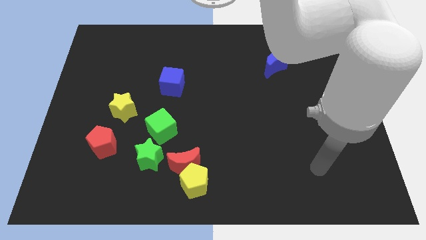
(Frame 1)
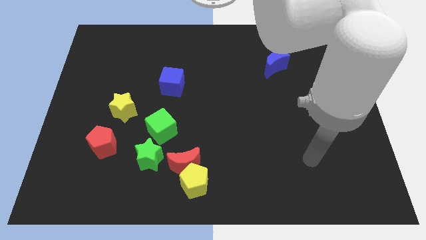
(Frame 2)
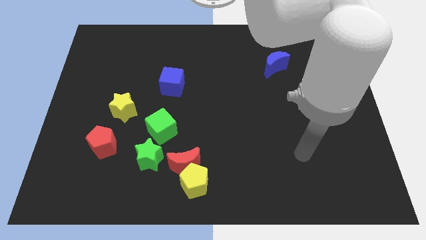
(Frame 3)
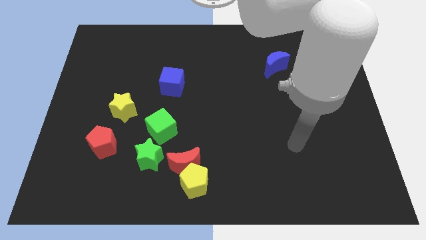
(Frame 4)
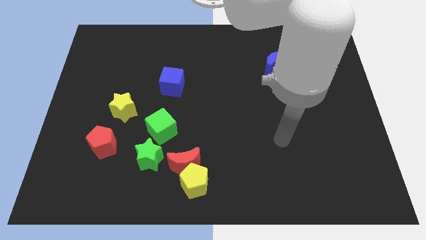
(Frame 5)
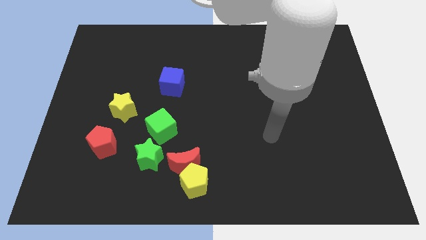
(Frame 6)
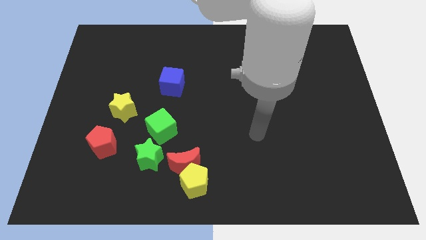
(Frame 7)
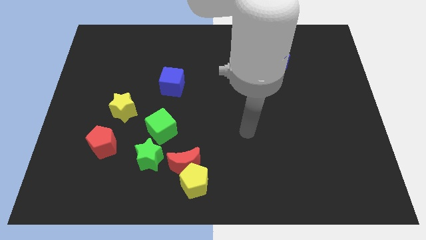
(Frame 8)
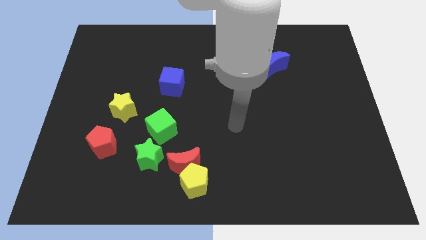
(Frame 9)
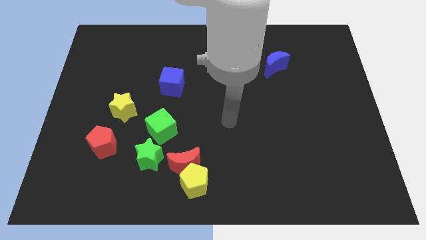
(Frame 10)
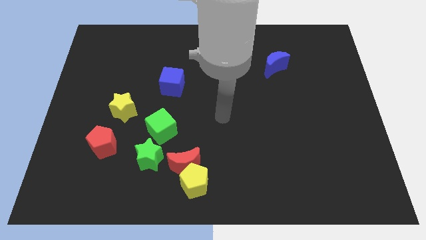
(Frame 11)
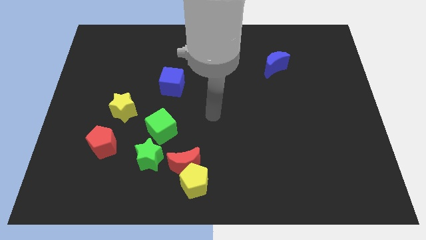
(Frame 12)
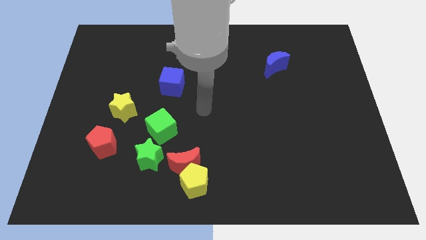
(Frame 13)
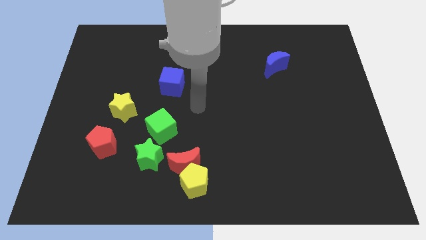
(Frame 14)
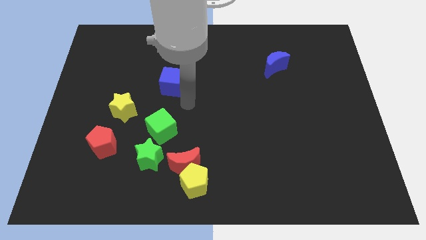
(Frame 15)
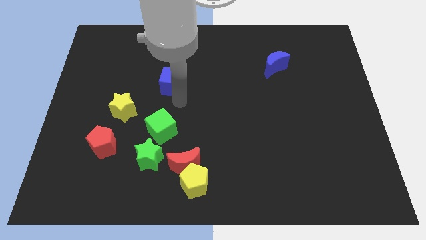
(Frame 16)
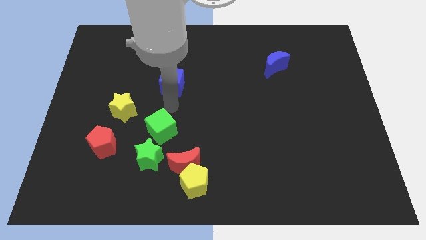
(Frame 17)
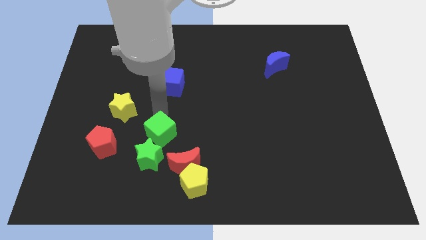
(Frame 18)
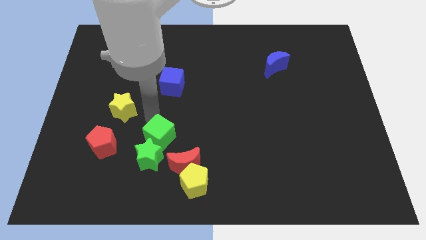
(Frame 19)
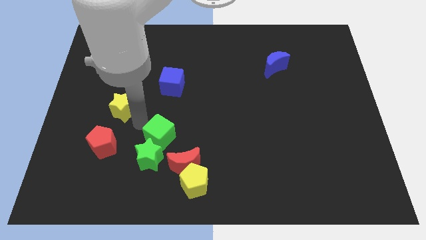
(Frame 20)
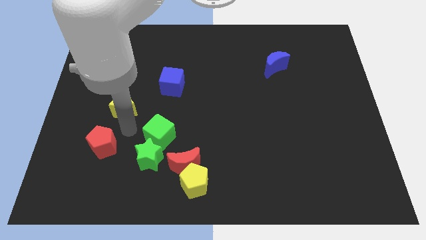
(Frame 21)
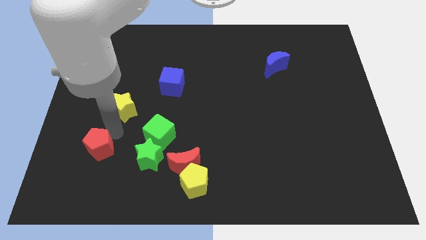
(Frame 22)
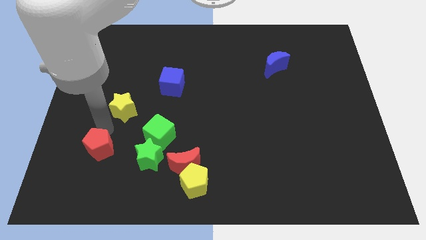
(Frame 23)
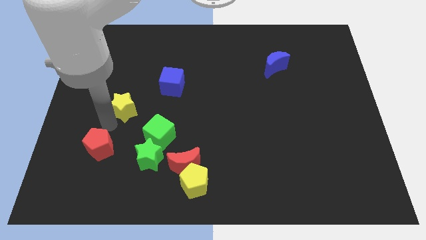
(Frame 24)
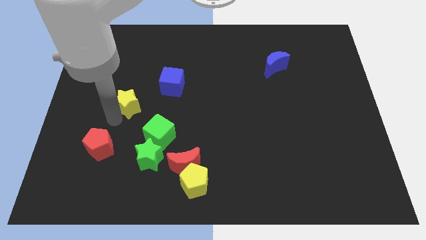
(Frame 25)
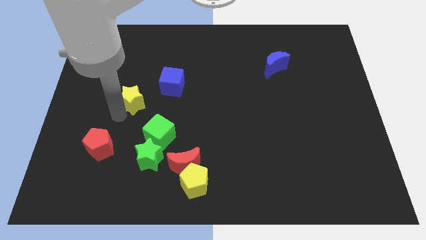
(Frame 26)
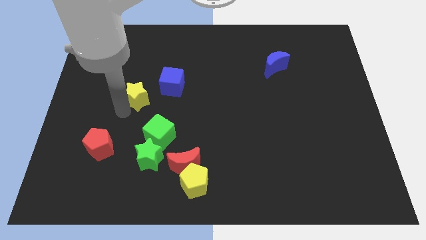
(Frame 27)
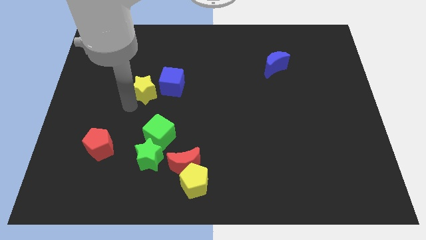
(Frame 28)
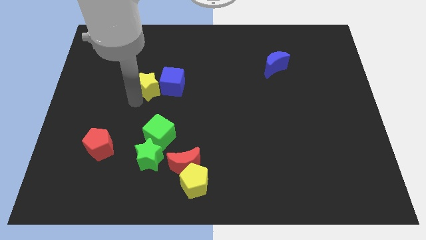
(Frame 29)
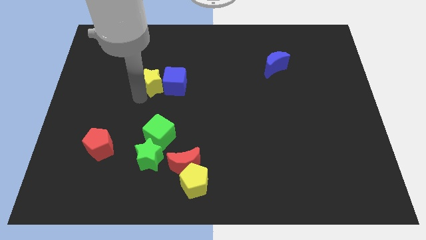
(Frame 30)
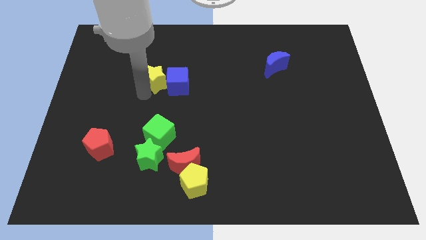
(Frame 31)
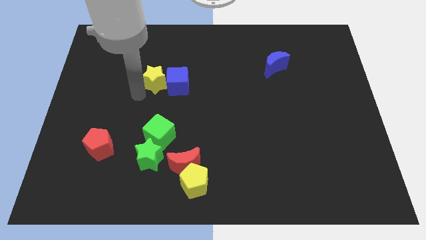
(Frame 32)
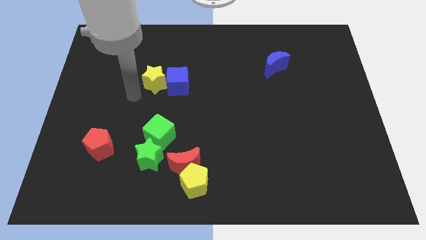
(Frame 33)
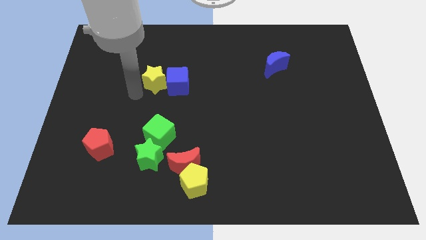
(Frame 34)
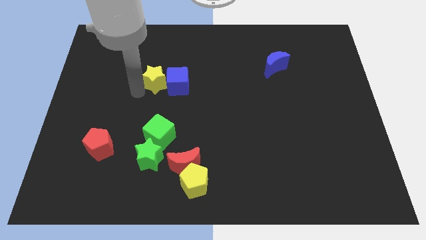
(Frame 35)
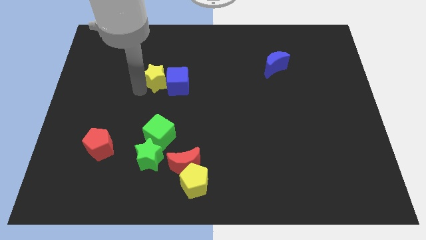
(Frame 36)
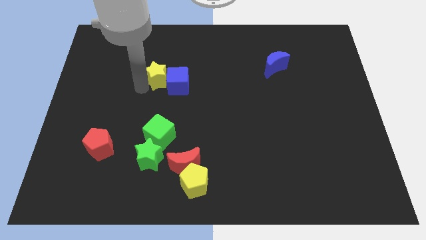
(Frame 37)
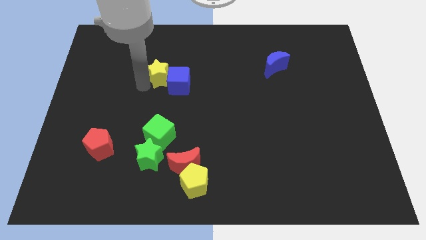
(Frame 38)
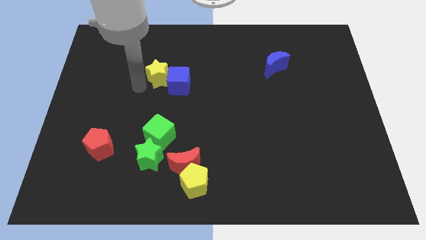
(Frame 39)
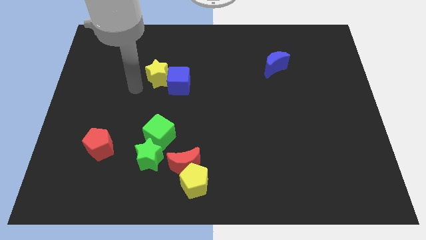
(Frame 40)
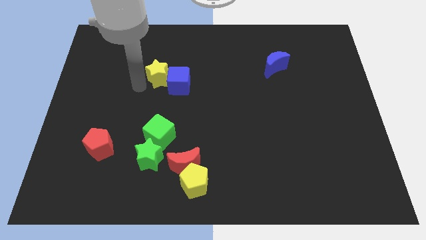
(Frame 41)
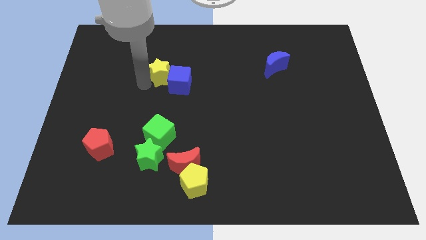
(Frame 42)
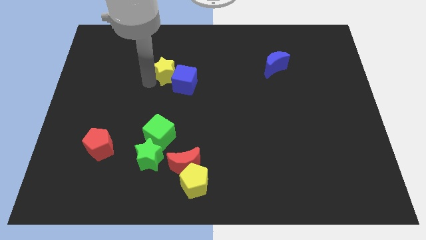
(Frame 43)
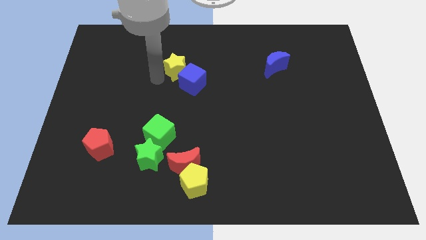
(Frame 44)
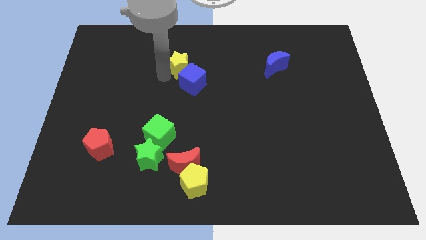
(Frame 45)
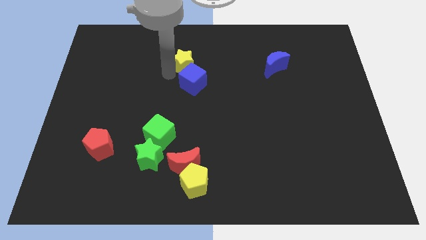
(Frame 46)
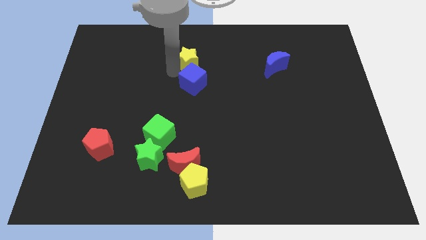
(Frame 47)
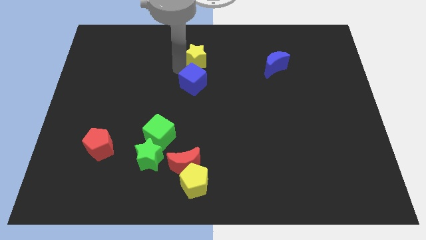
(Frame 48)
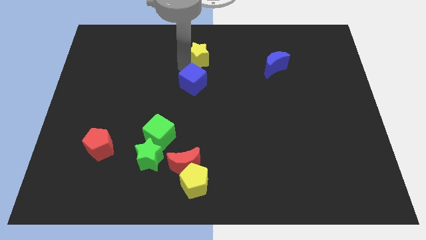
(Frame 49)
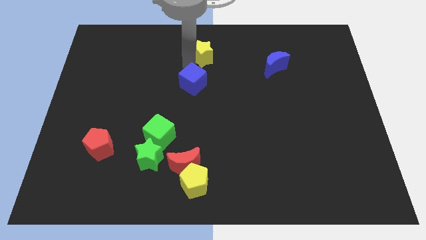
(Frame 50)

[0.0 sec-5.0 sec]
push the yellow star to the top
